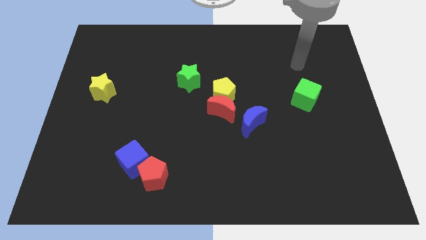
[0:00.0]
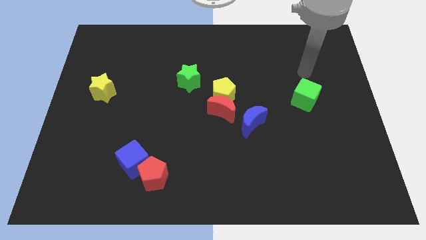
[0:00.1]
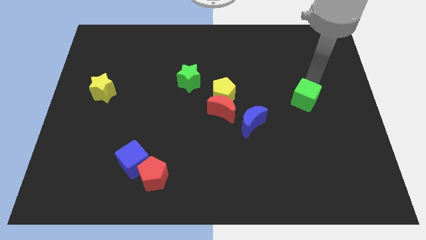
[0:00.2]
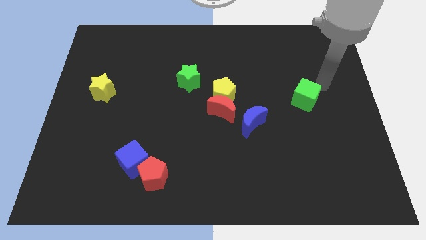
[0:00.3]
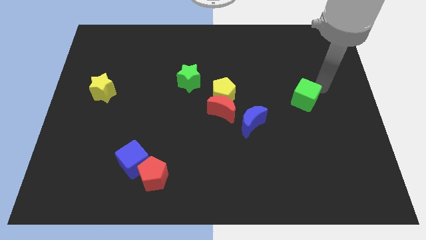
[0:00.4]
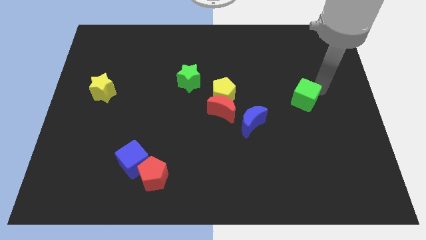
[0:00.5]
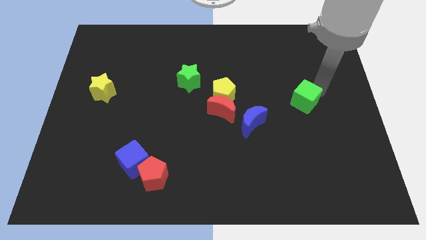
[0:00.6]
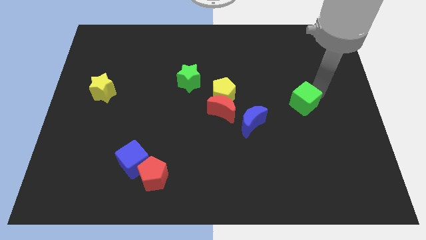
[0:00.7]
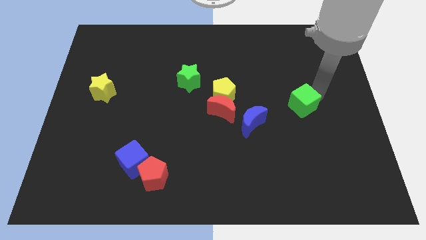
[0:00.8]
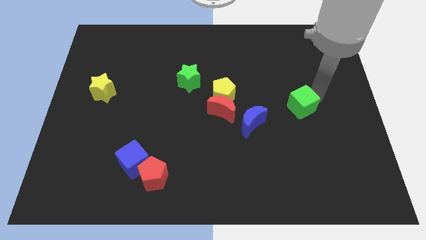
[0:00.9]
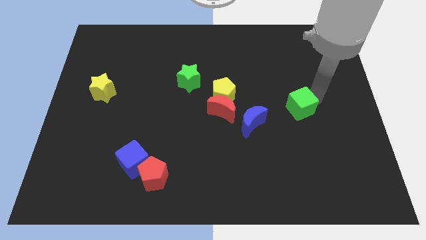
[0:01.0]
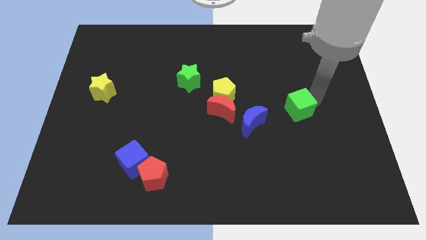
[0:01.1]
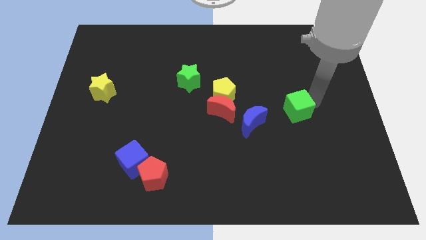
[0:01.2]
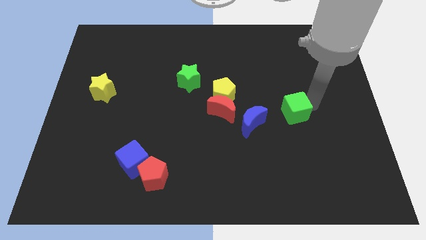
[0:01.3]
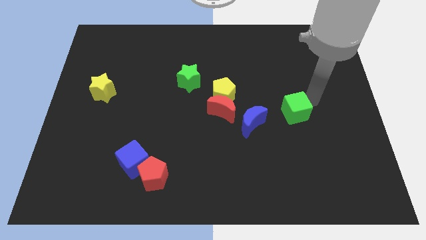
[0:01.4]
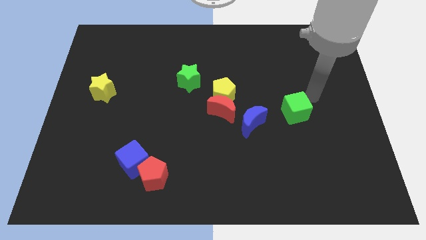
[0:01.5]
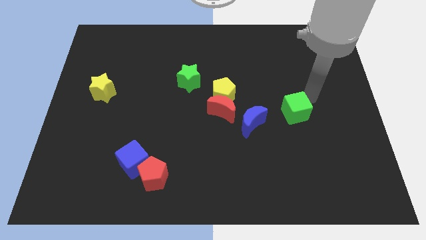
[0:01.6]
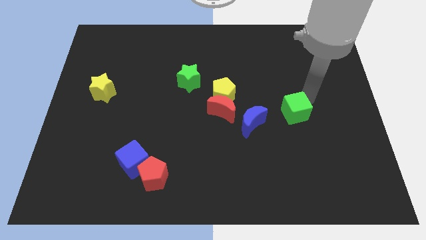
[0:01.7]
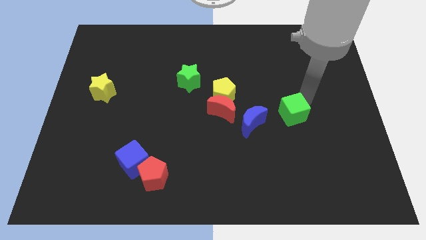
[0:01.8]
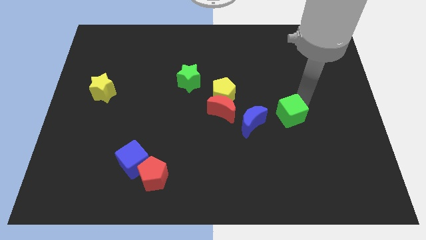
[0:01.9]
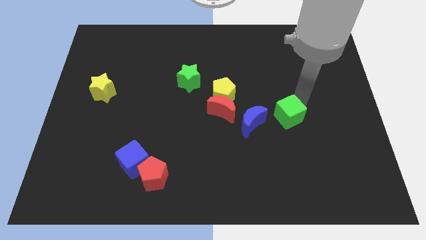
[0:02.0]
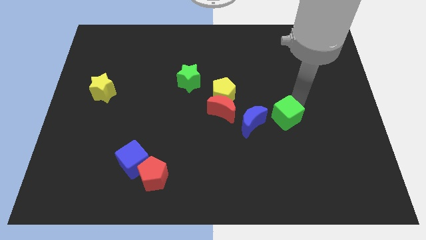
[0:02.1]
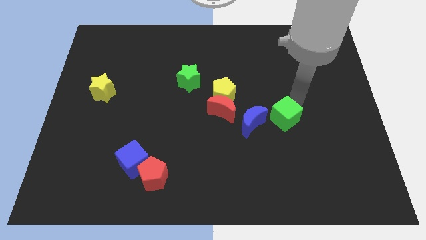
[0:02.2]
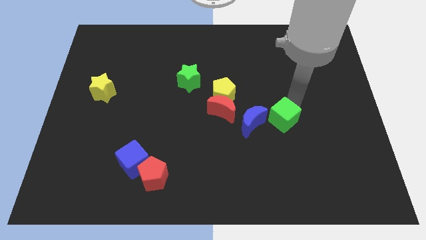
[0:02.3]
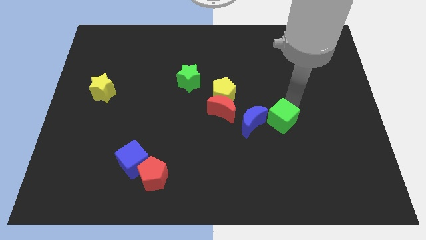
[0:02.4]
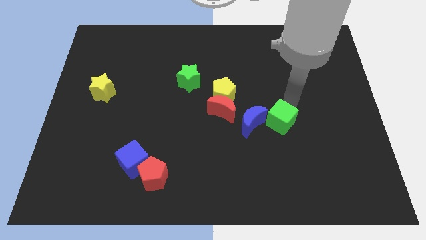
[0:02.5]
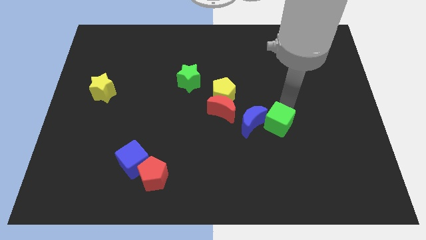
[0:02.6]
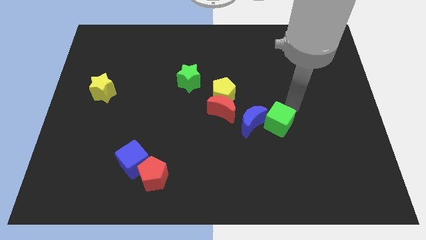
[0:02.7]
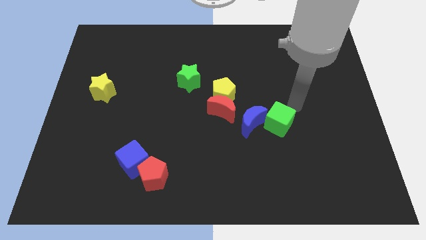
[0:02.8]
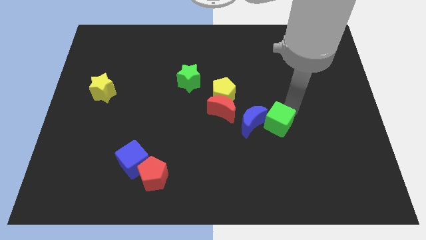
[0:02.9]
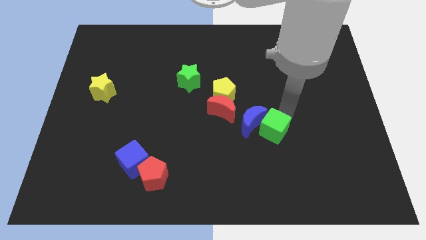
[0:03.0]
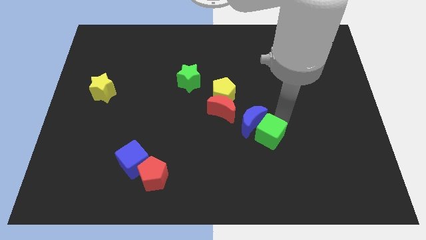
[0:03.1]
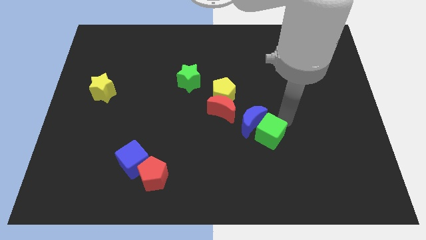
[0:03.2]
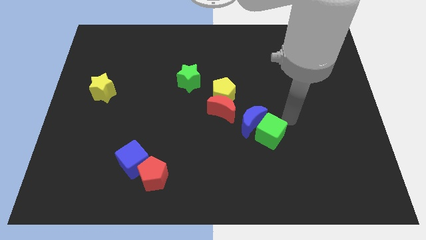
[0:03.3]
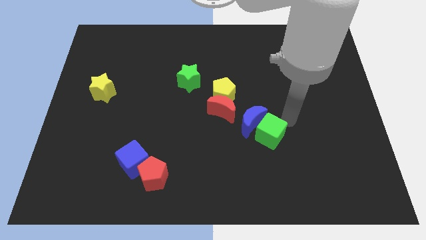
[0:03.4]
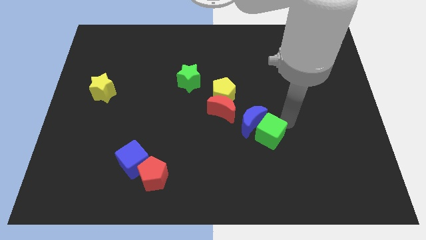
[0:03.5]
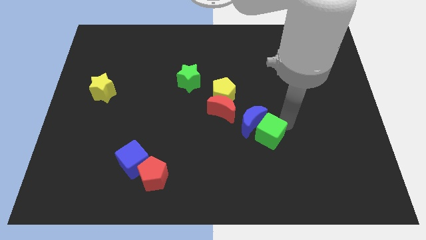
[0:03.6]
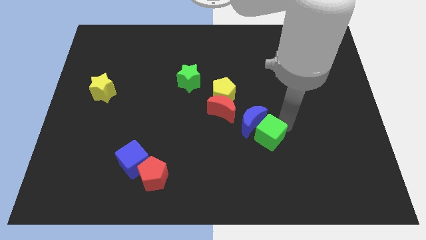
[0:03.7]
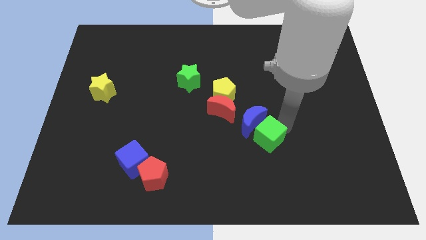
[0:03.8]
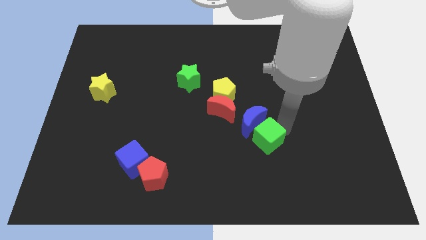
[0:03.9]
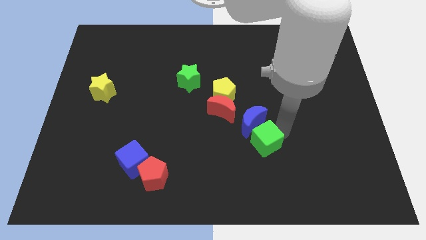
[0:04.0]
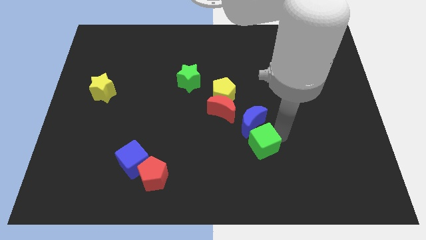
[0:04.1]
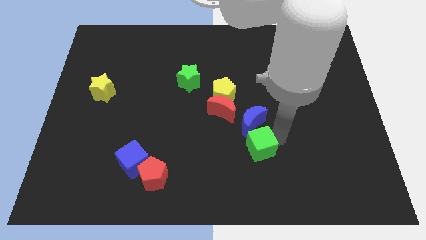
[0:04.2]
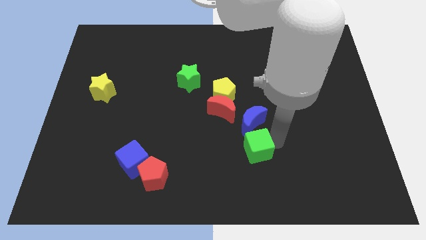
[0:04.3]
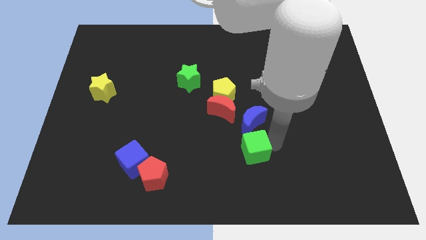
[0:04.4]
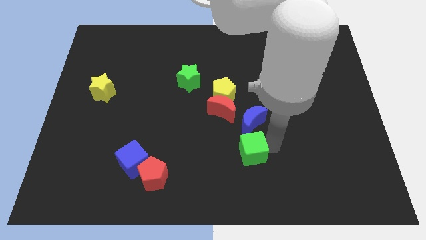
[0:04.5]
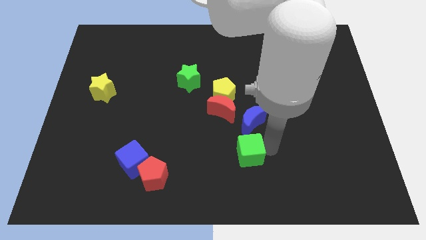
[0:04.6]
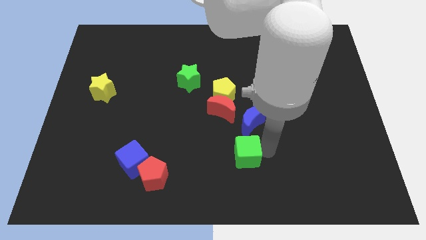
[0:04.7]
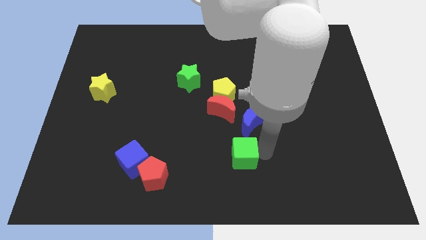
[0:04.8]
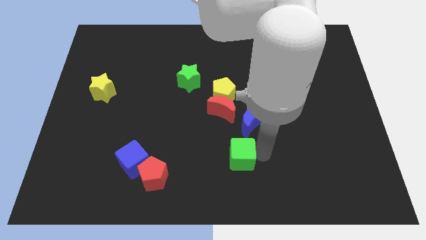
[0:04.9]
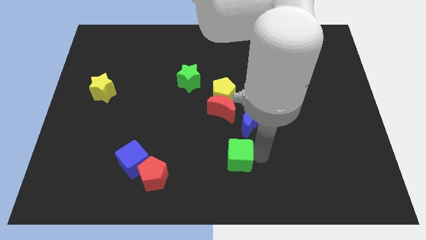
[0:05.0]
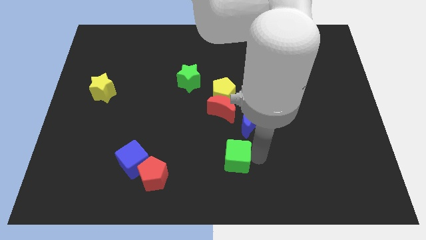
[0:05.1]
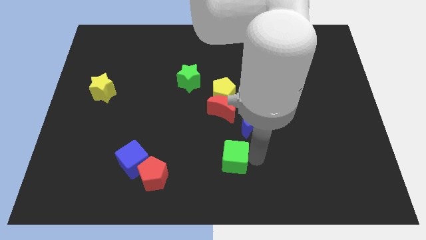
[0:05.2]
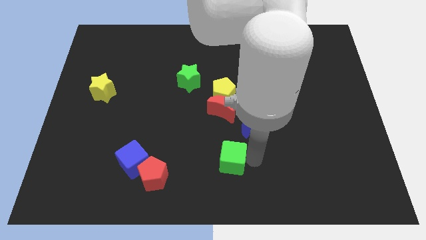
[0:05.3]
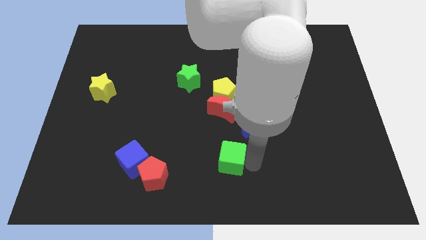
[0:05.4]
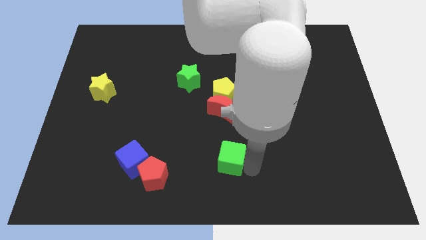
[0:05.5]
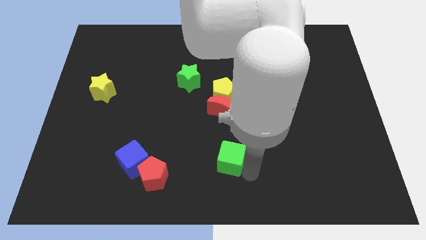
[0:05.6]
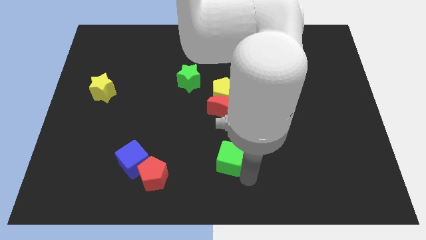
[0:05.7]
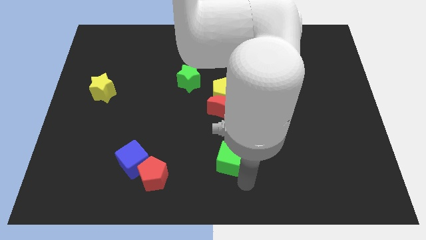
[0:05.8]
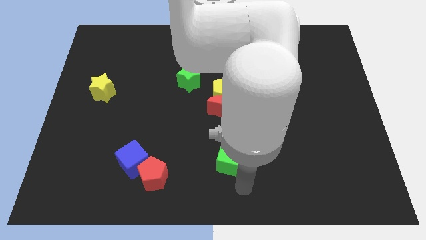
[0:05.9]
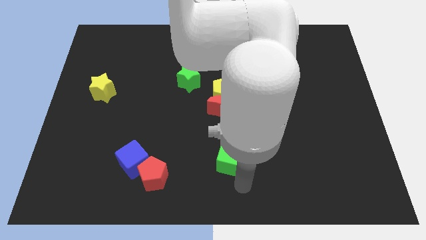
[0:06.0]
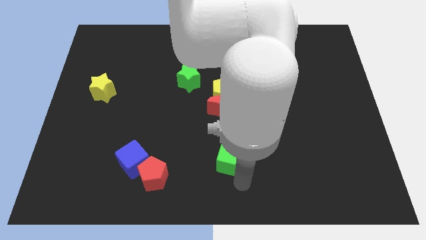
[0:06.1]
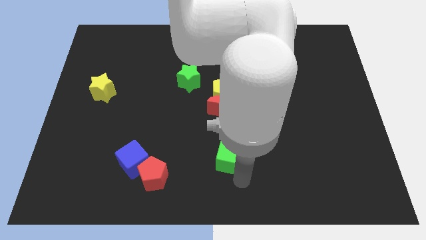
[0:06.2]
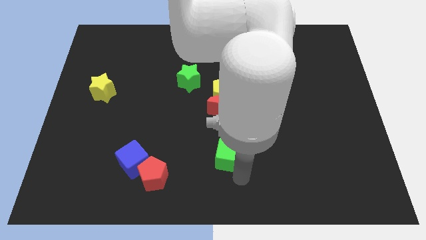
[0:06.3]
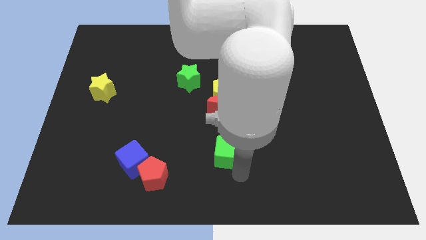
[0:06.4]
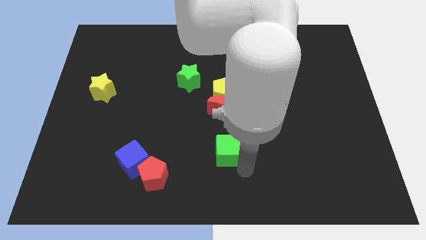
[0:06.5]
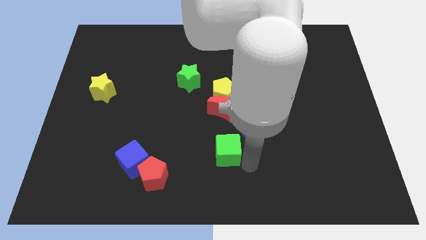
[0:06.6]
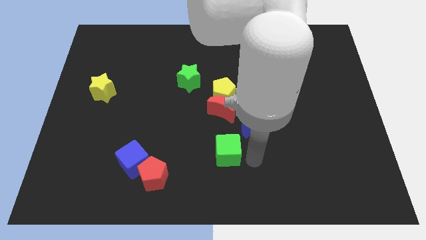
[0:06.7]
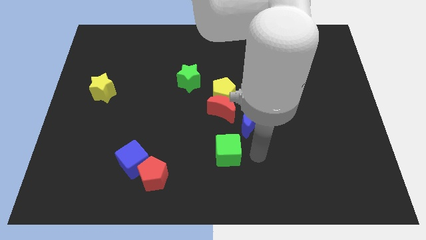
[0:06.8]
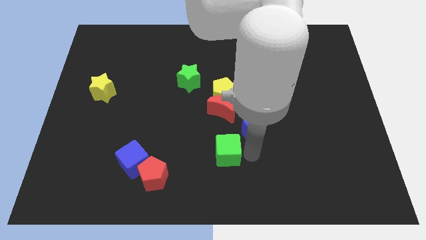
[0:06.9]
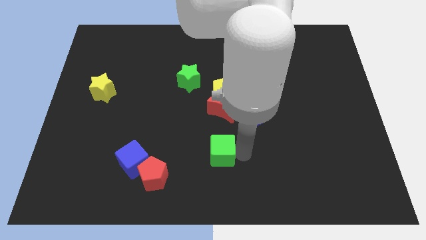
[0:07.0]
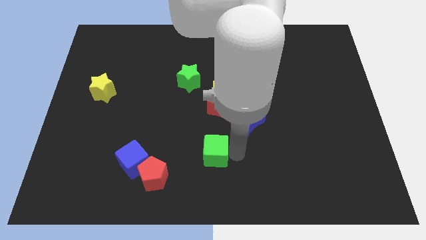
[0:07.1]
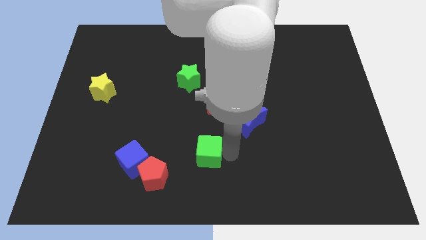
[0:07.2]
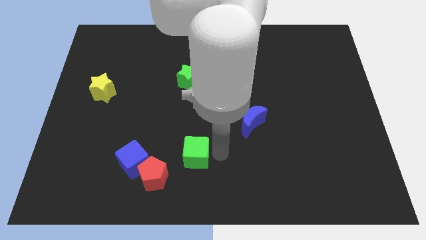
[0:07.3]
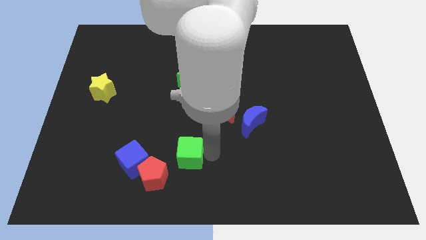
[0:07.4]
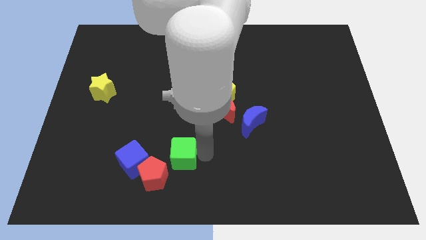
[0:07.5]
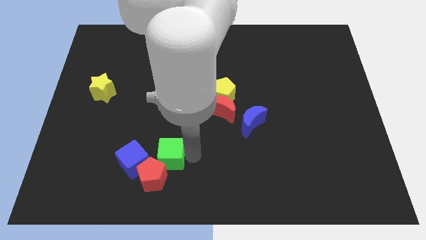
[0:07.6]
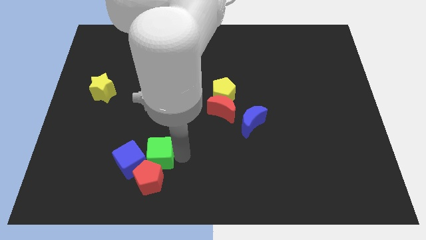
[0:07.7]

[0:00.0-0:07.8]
move the green cube towards the blue cube
